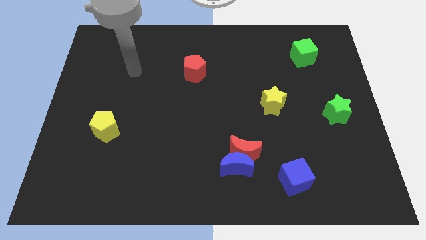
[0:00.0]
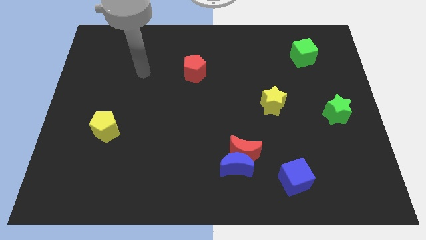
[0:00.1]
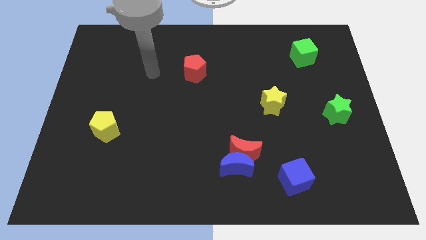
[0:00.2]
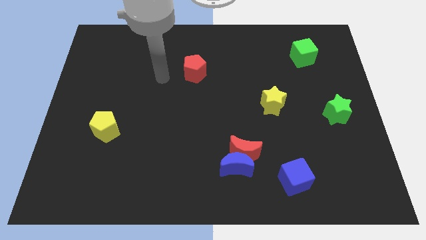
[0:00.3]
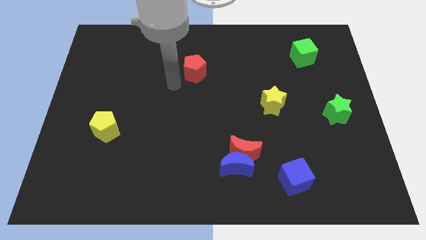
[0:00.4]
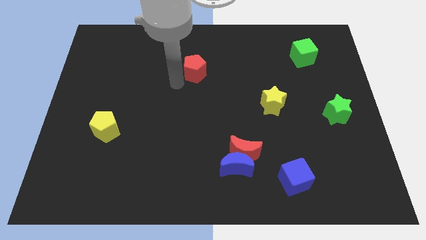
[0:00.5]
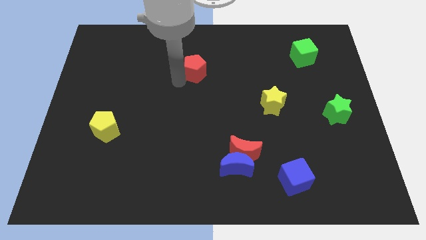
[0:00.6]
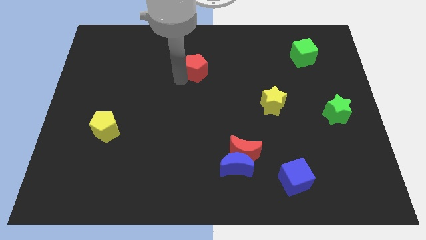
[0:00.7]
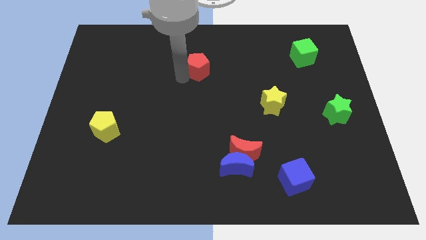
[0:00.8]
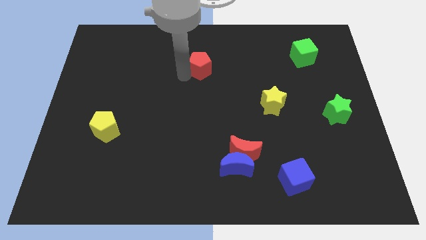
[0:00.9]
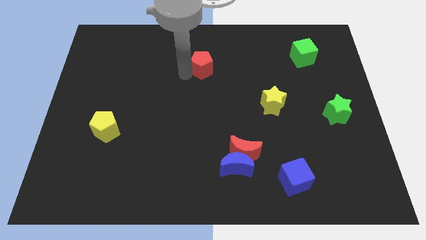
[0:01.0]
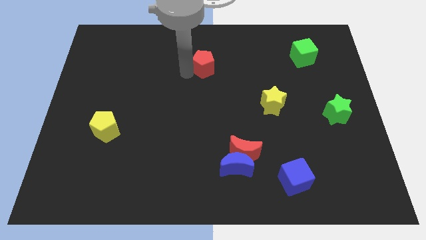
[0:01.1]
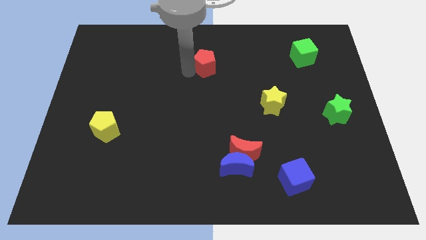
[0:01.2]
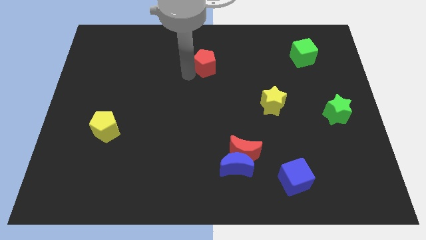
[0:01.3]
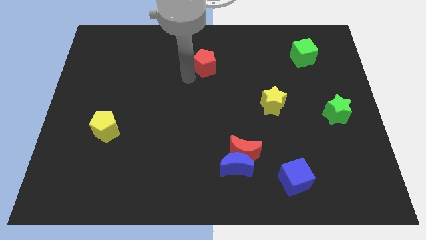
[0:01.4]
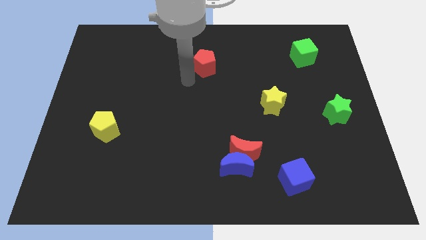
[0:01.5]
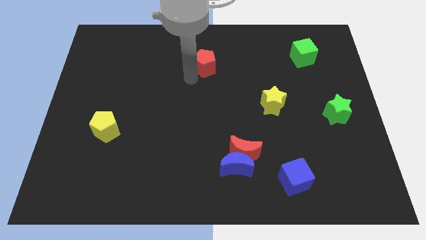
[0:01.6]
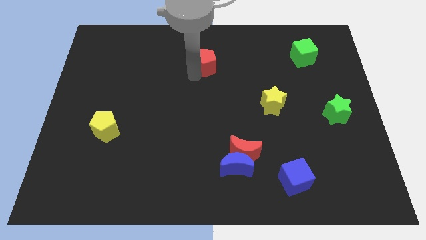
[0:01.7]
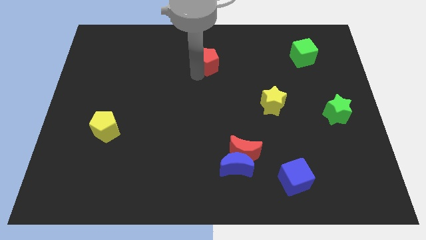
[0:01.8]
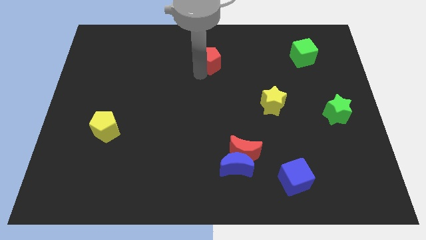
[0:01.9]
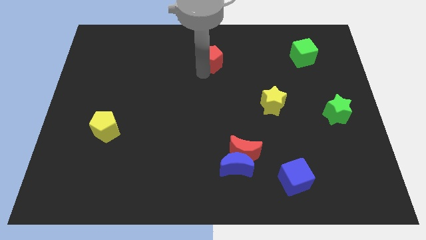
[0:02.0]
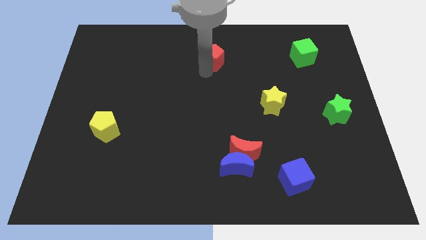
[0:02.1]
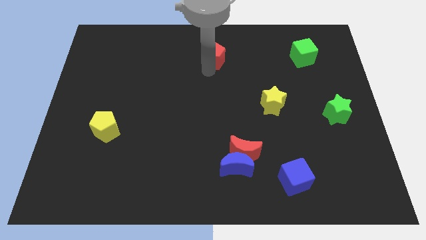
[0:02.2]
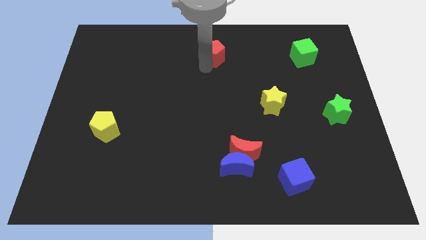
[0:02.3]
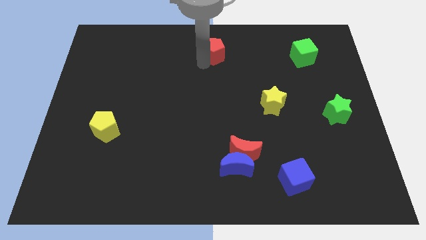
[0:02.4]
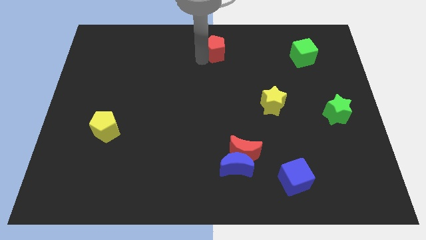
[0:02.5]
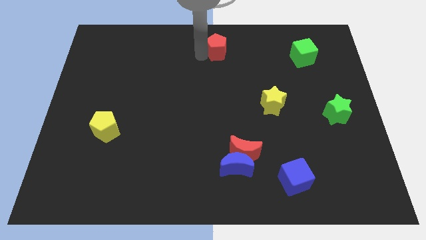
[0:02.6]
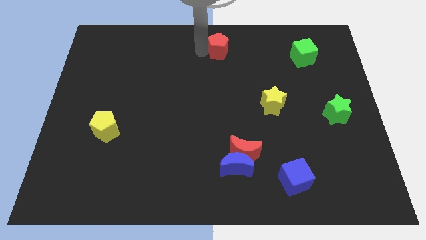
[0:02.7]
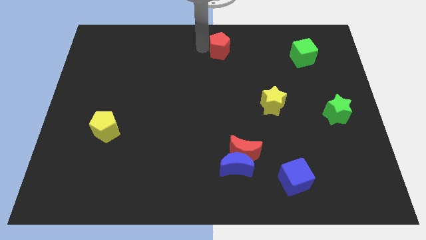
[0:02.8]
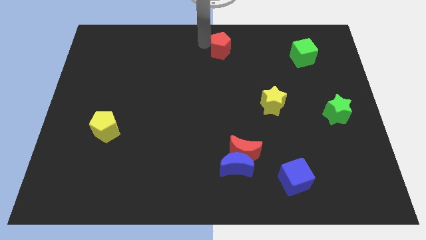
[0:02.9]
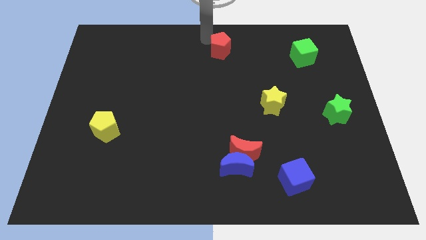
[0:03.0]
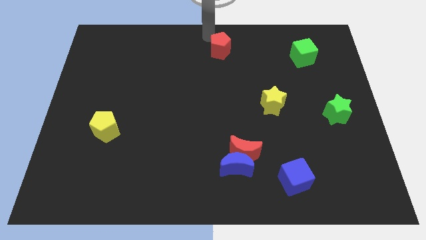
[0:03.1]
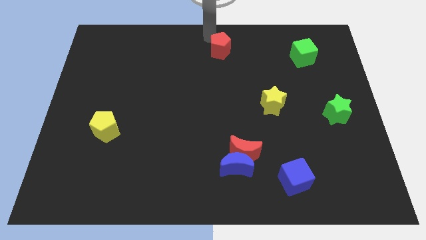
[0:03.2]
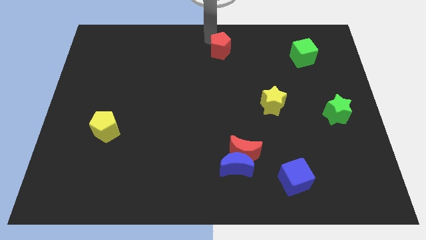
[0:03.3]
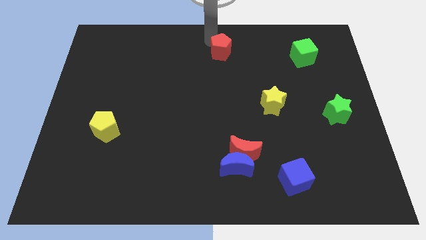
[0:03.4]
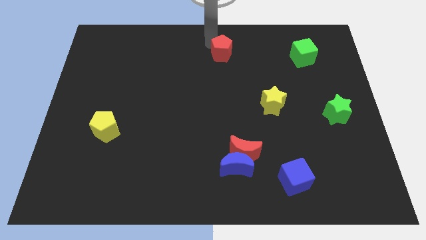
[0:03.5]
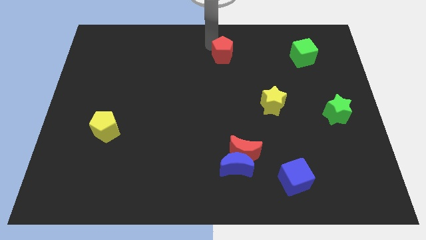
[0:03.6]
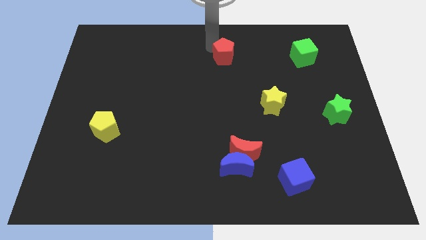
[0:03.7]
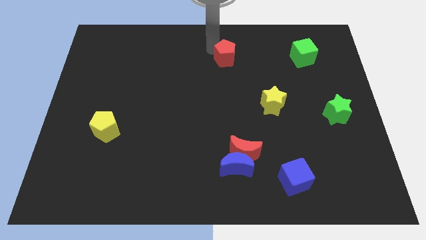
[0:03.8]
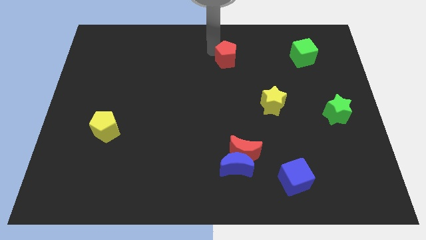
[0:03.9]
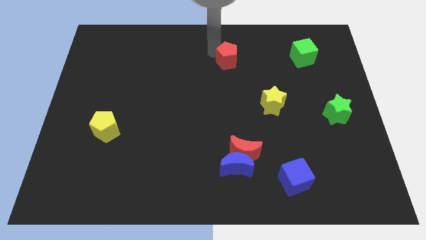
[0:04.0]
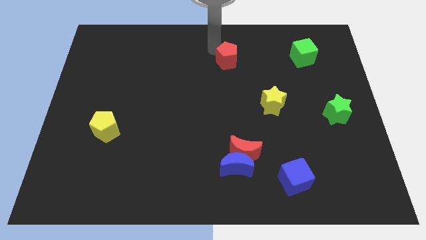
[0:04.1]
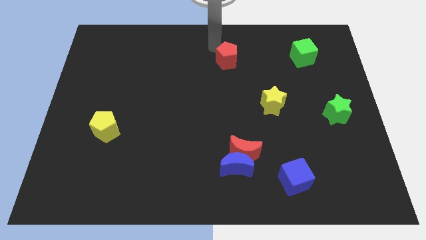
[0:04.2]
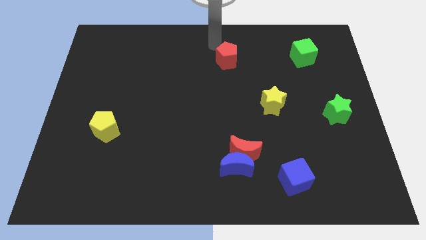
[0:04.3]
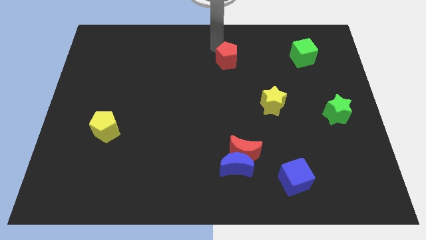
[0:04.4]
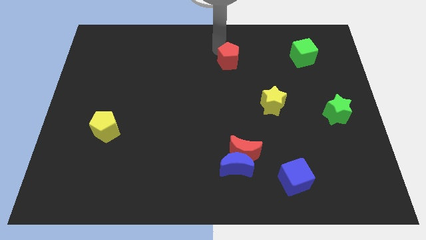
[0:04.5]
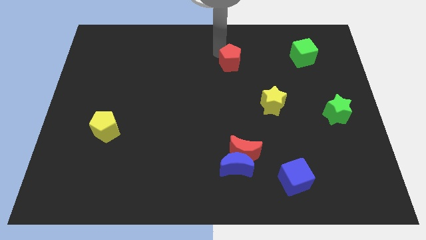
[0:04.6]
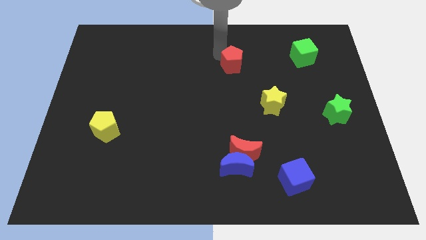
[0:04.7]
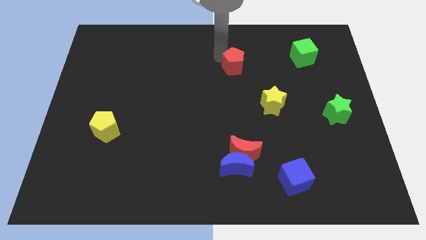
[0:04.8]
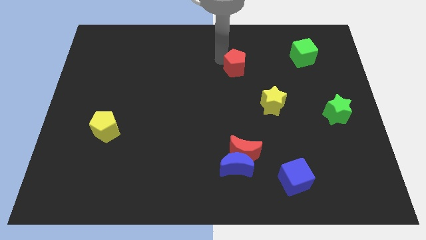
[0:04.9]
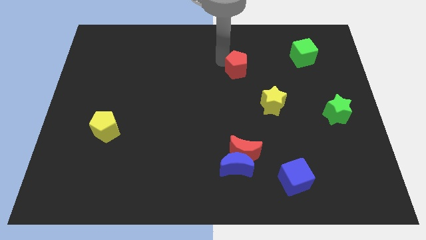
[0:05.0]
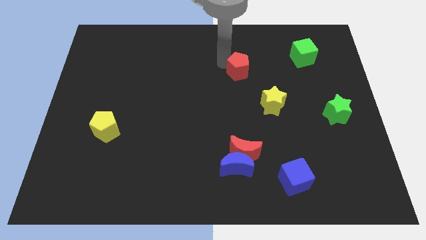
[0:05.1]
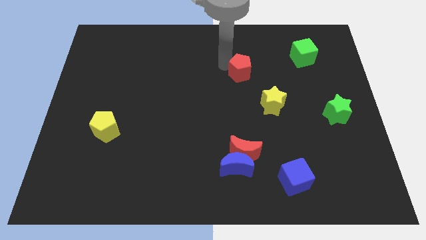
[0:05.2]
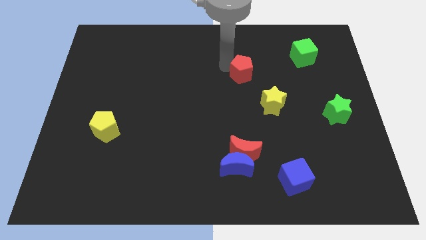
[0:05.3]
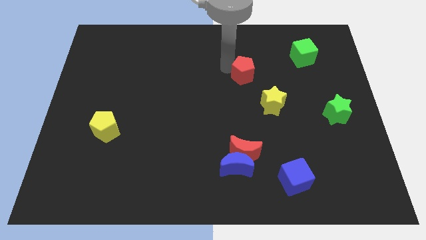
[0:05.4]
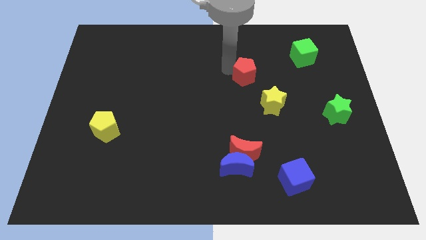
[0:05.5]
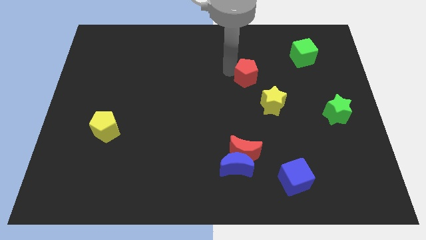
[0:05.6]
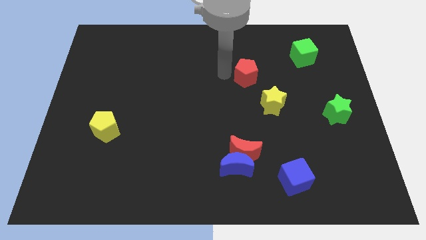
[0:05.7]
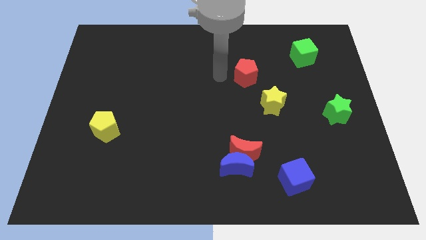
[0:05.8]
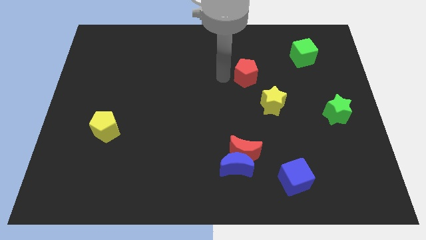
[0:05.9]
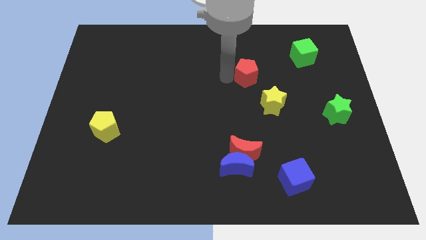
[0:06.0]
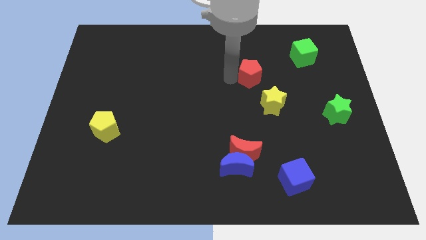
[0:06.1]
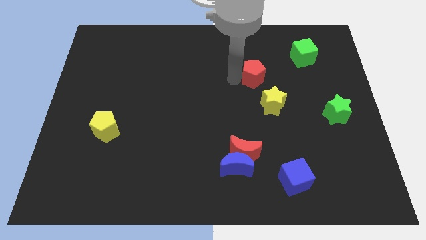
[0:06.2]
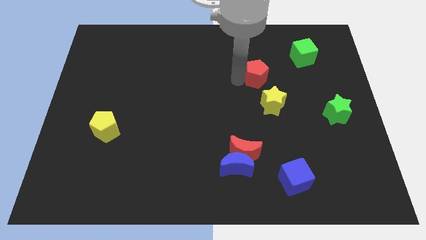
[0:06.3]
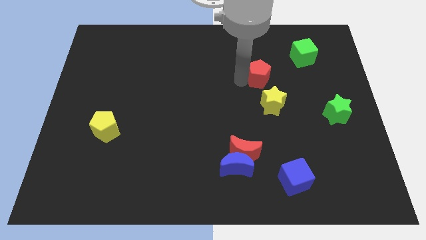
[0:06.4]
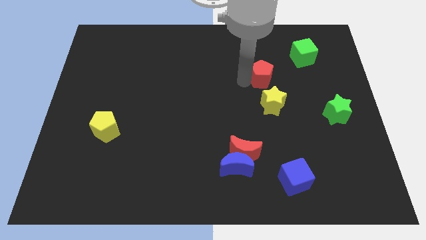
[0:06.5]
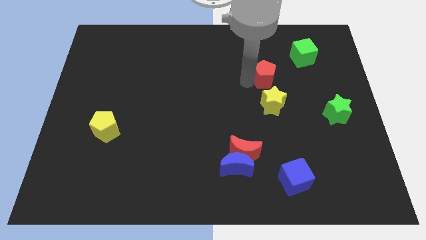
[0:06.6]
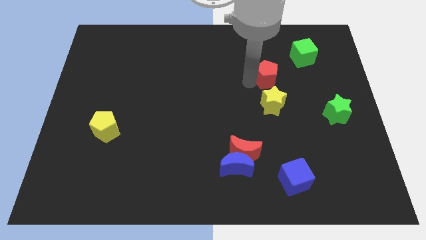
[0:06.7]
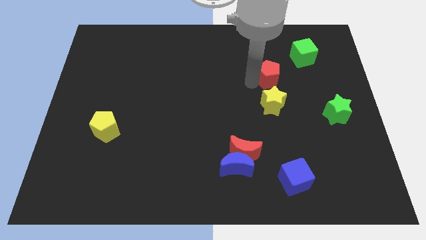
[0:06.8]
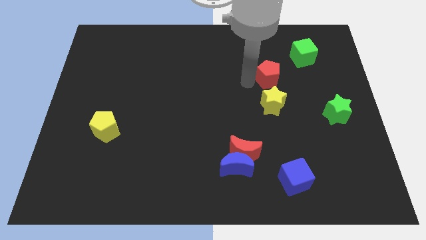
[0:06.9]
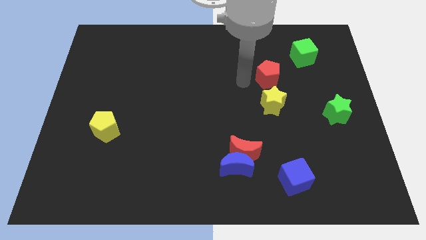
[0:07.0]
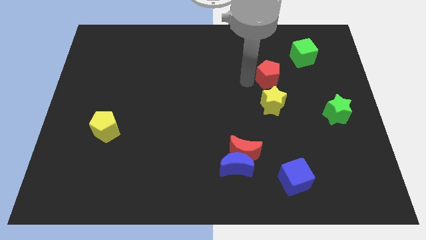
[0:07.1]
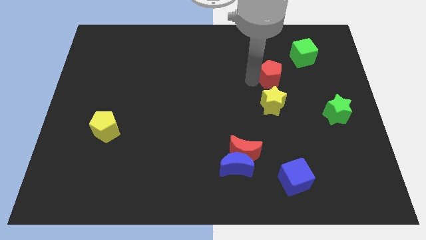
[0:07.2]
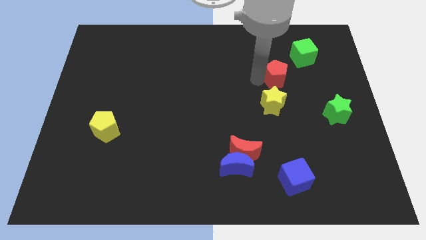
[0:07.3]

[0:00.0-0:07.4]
slide the red pentagon to the right

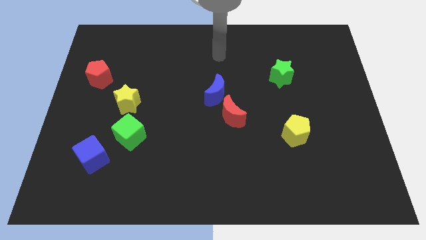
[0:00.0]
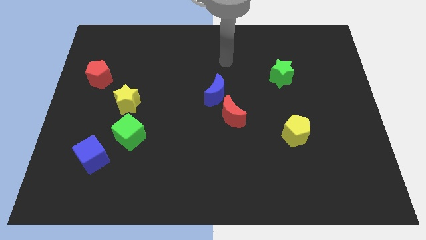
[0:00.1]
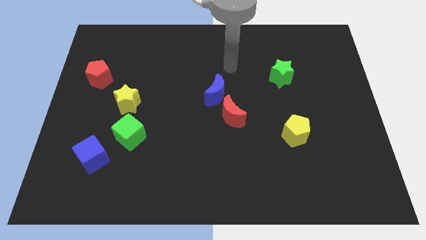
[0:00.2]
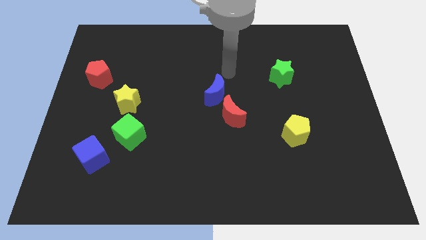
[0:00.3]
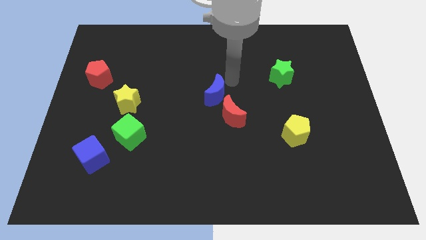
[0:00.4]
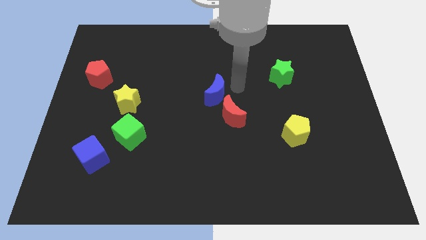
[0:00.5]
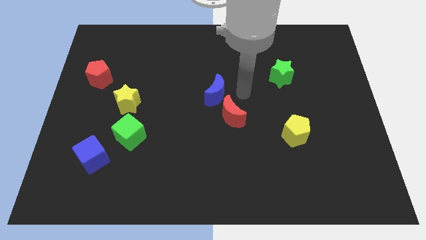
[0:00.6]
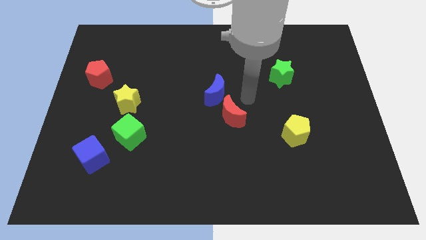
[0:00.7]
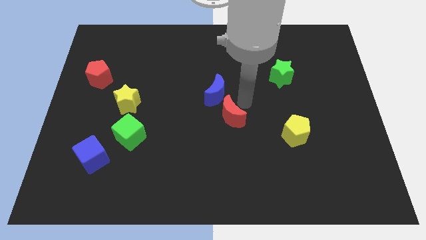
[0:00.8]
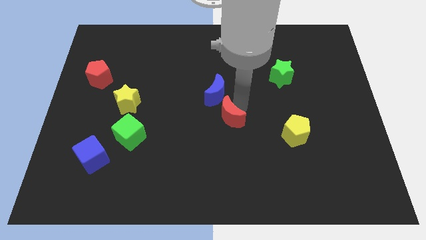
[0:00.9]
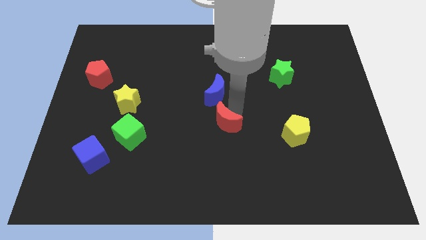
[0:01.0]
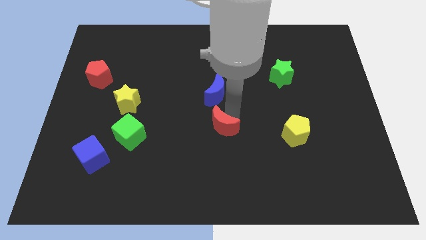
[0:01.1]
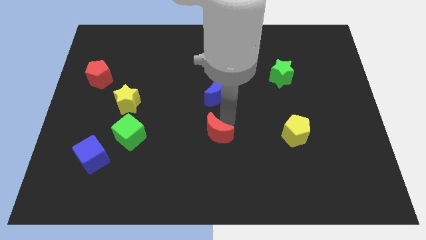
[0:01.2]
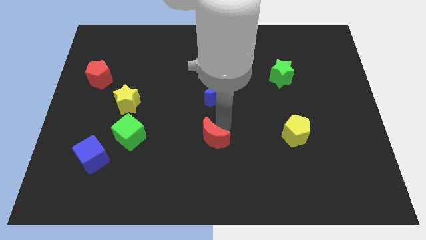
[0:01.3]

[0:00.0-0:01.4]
move the red moon slightly downwards and left diagonally
